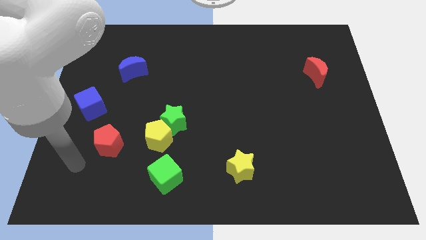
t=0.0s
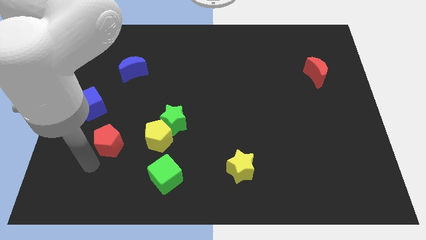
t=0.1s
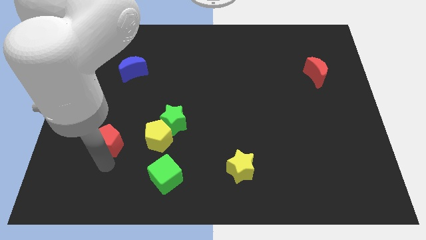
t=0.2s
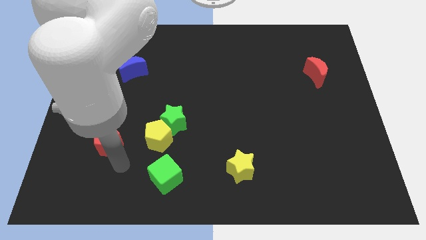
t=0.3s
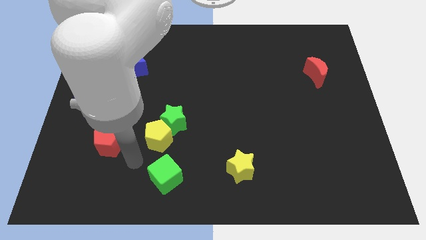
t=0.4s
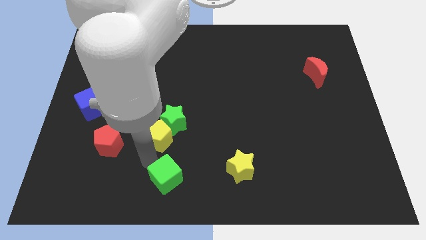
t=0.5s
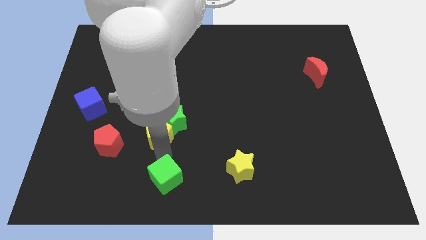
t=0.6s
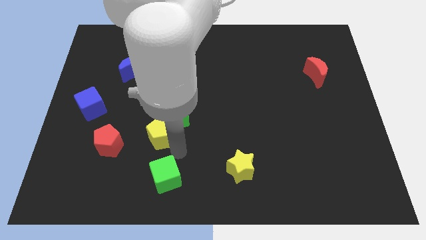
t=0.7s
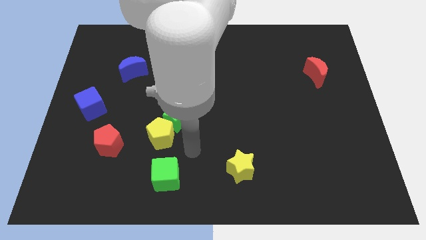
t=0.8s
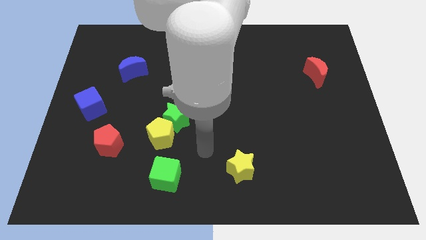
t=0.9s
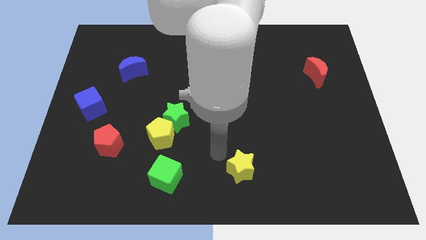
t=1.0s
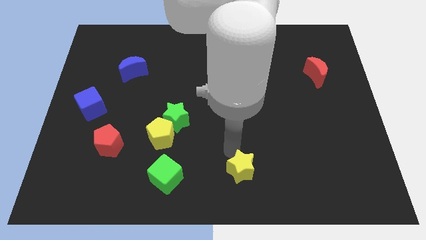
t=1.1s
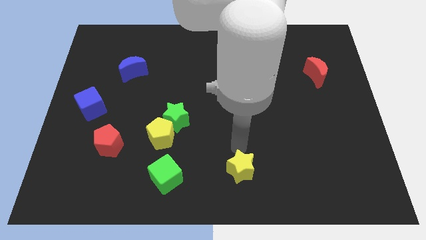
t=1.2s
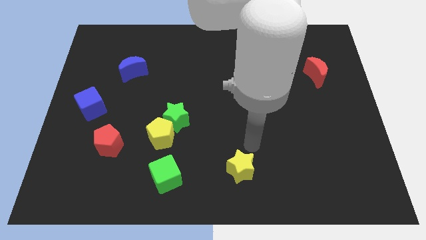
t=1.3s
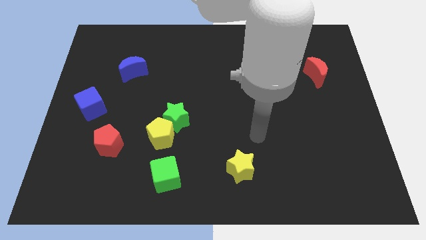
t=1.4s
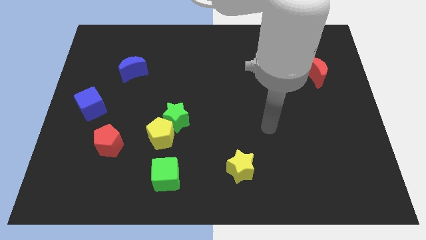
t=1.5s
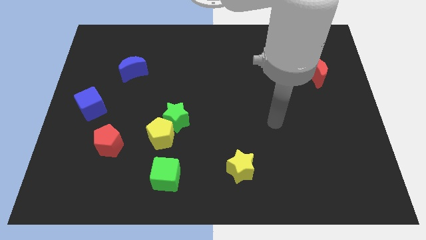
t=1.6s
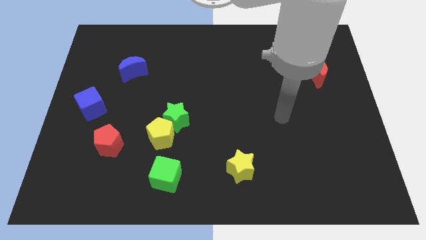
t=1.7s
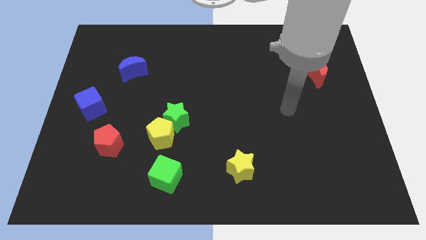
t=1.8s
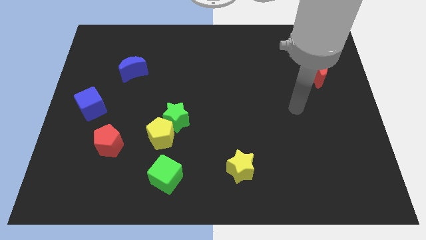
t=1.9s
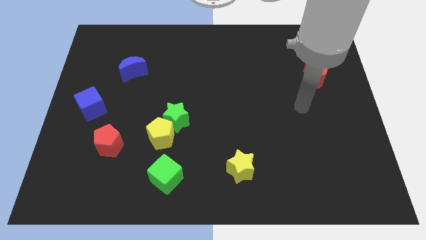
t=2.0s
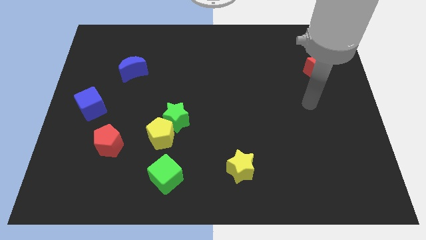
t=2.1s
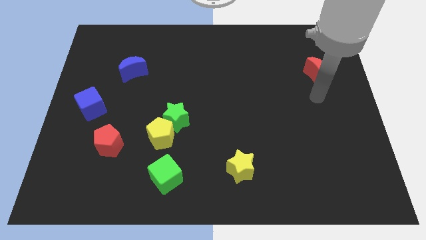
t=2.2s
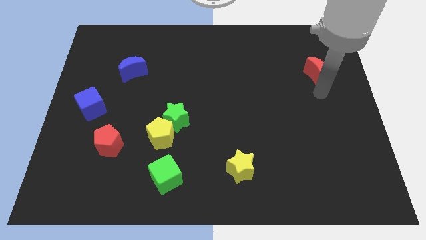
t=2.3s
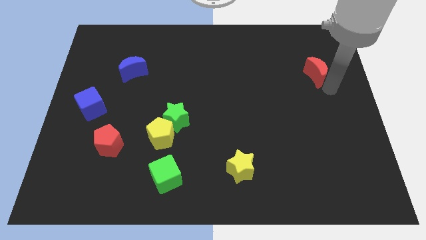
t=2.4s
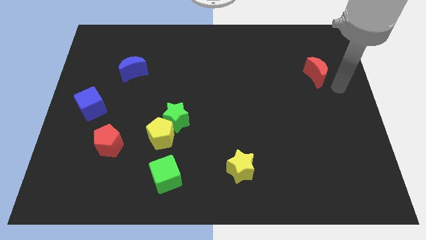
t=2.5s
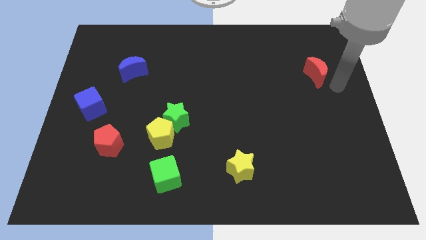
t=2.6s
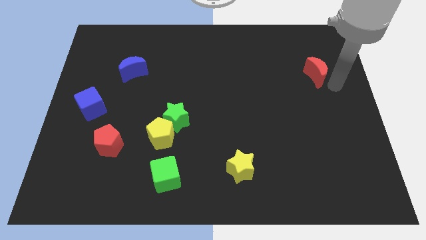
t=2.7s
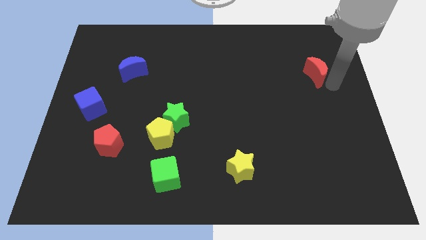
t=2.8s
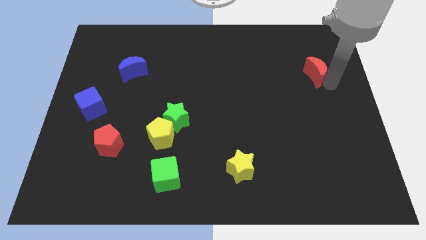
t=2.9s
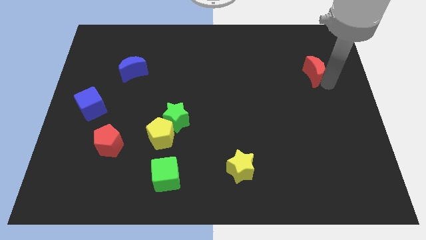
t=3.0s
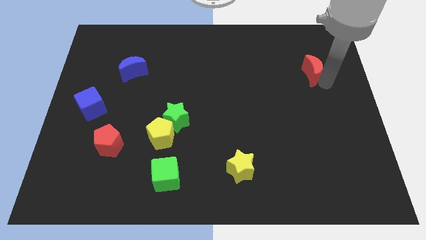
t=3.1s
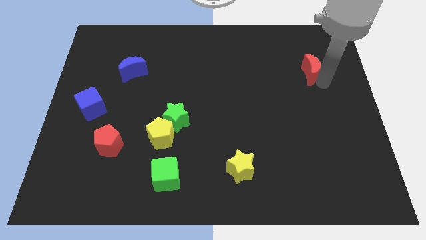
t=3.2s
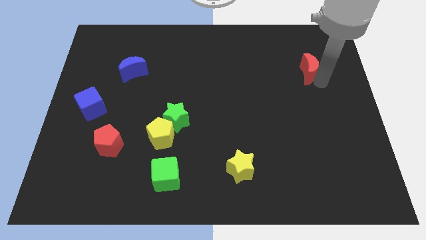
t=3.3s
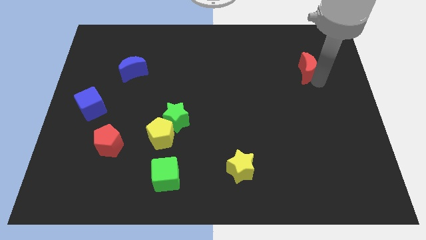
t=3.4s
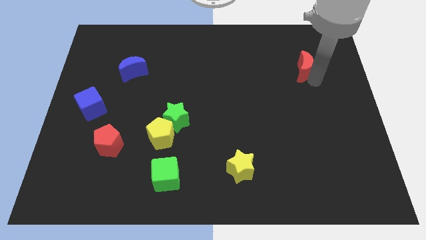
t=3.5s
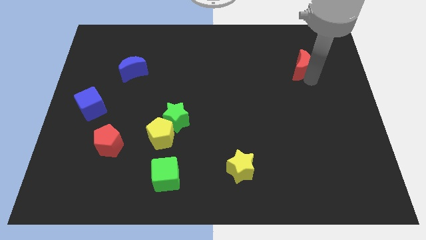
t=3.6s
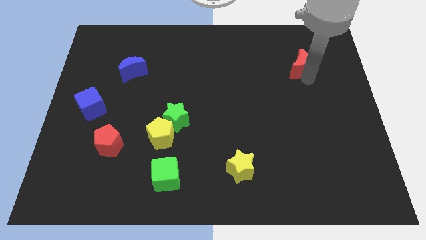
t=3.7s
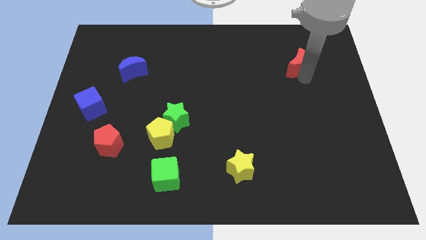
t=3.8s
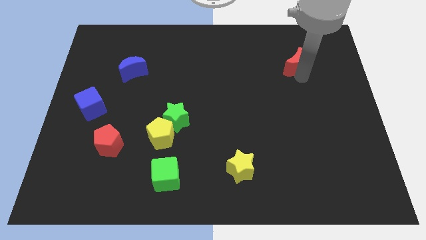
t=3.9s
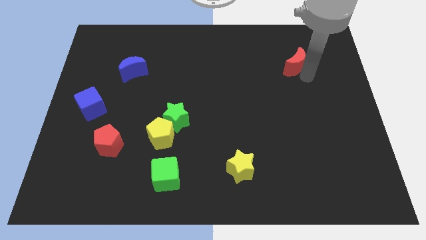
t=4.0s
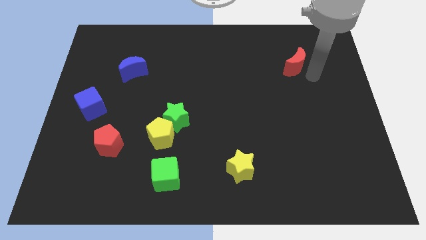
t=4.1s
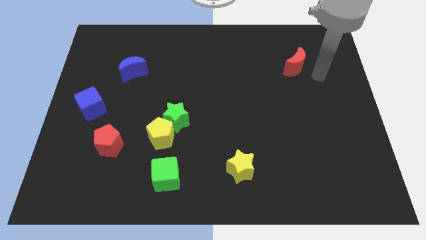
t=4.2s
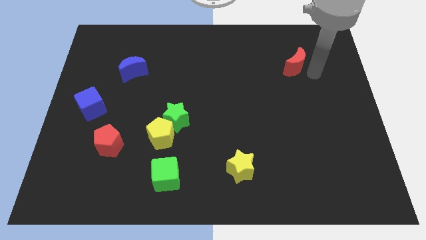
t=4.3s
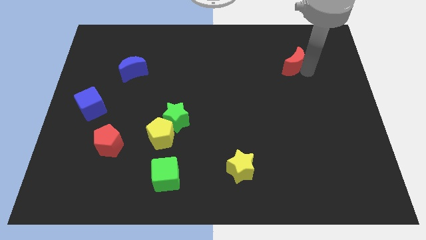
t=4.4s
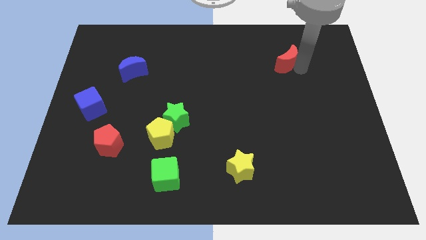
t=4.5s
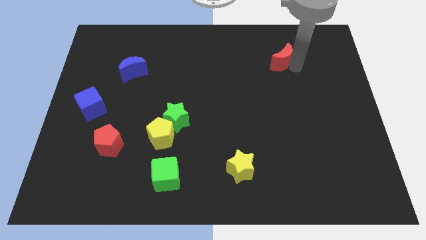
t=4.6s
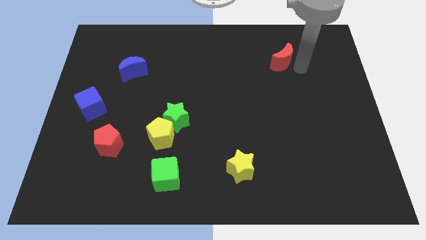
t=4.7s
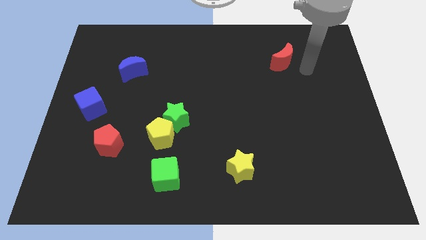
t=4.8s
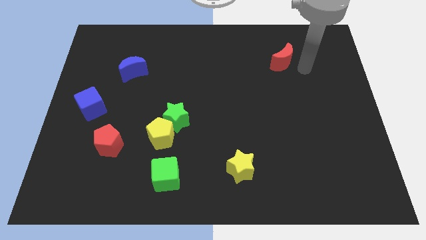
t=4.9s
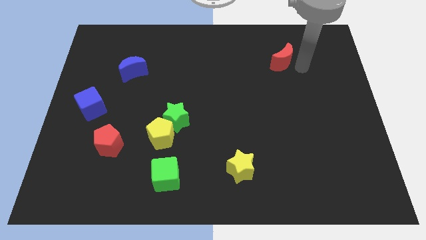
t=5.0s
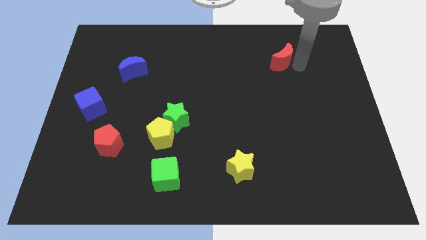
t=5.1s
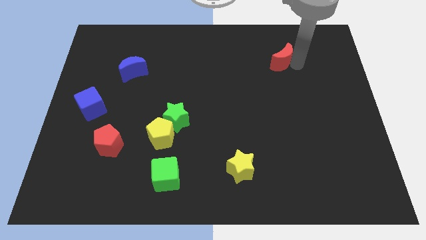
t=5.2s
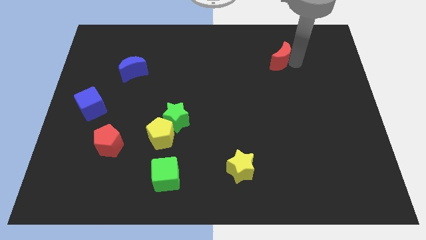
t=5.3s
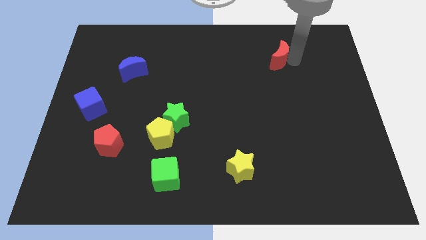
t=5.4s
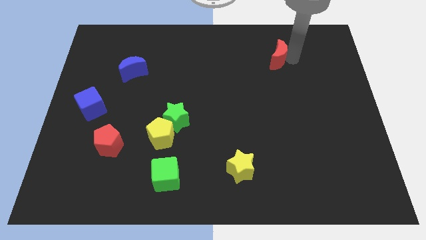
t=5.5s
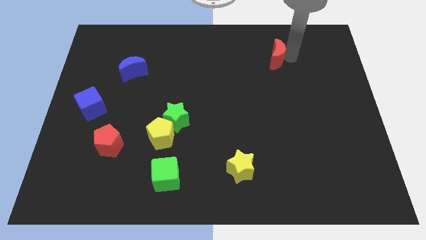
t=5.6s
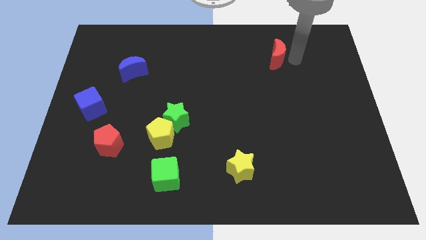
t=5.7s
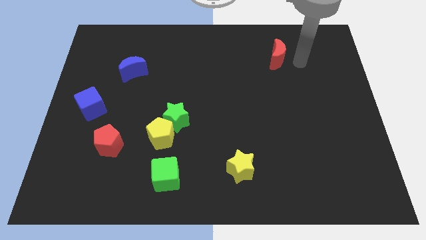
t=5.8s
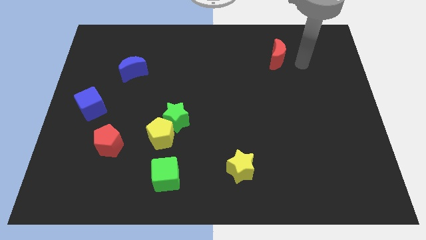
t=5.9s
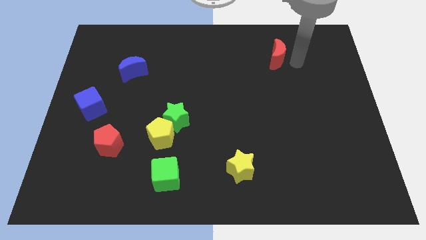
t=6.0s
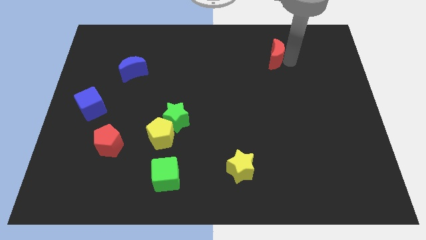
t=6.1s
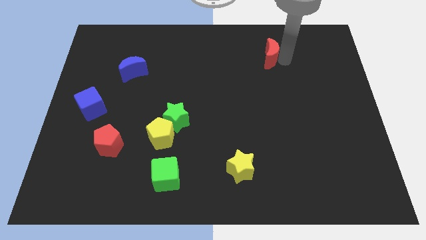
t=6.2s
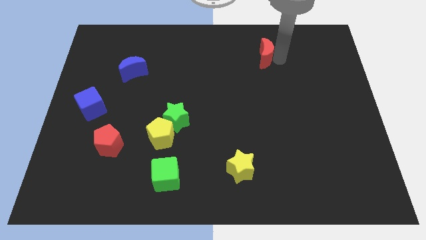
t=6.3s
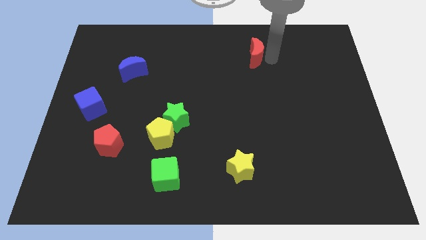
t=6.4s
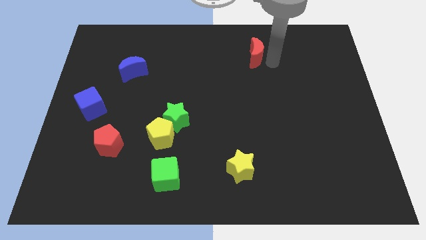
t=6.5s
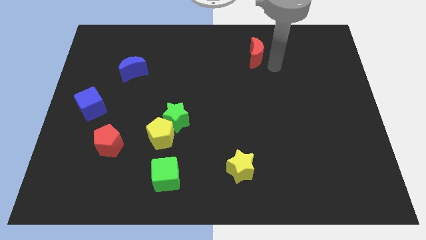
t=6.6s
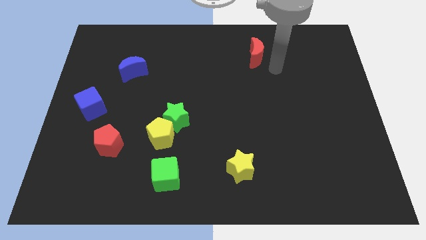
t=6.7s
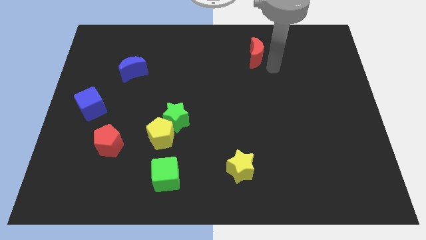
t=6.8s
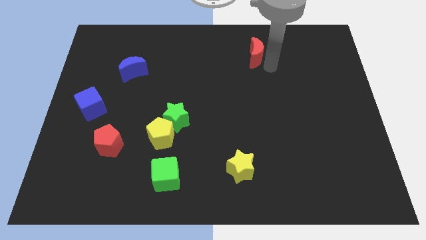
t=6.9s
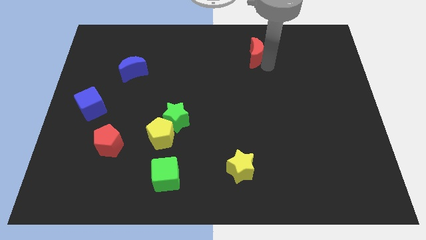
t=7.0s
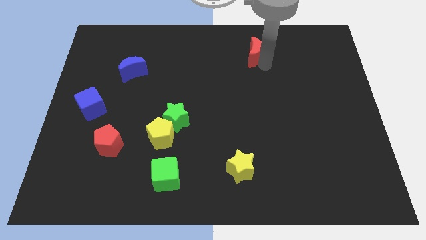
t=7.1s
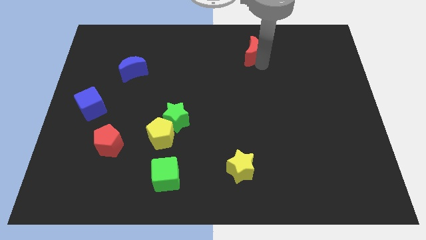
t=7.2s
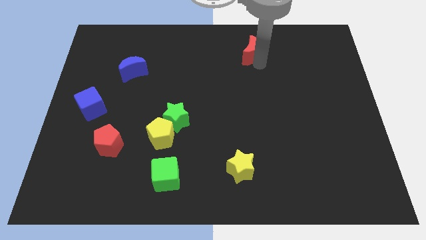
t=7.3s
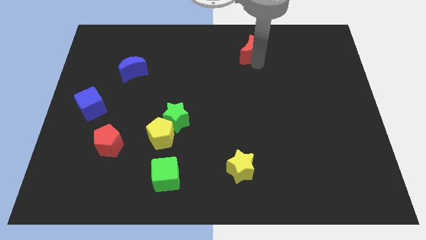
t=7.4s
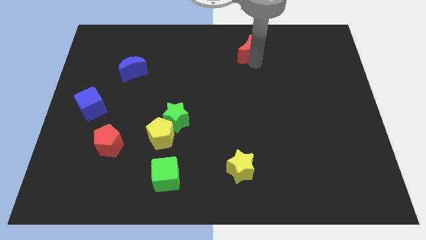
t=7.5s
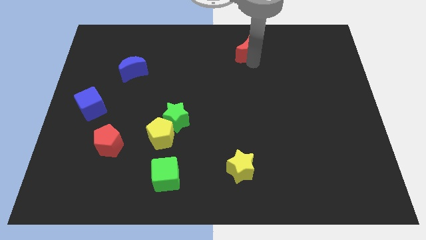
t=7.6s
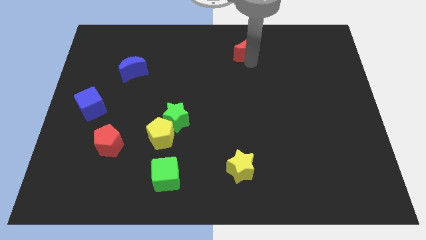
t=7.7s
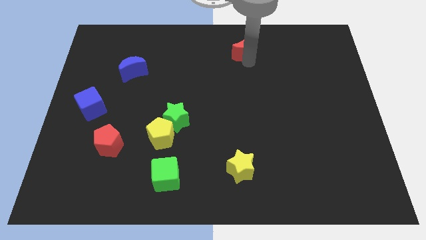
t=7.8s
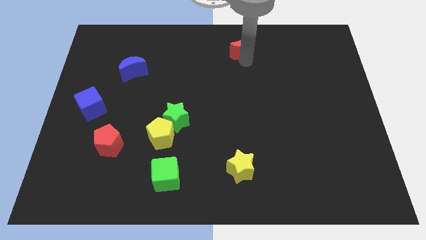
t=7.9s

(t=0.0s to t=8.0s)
put the red moon to the towards your base
